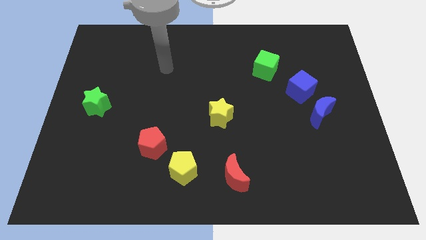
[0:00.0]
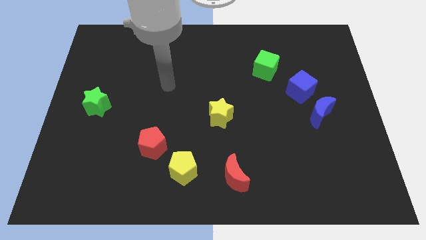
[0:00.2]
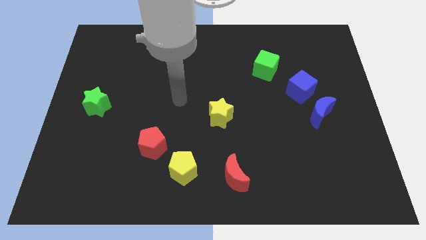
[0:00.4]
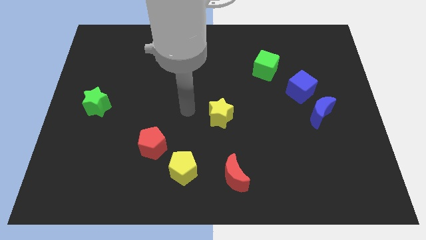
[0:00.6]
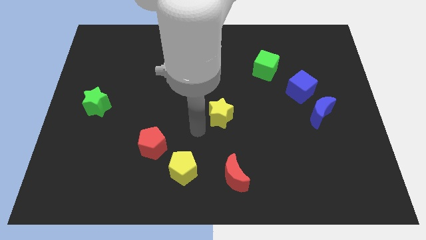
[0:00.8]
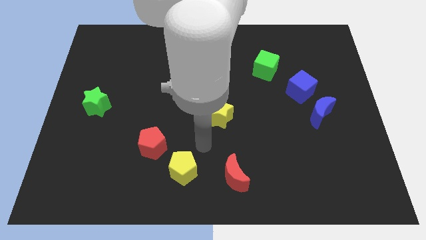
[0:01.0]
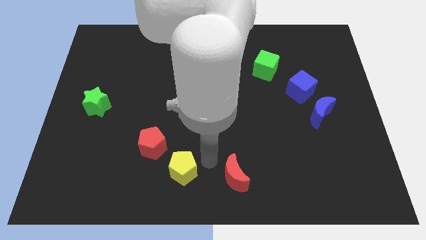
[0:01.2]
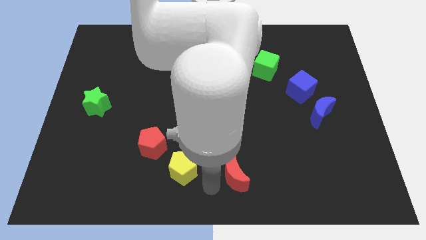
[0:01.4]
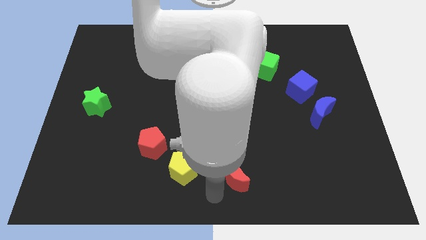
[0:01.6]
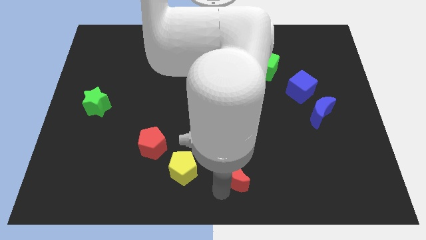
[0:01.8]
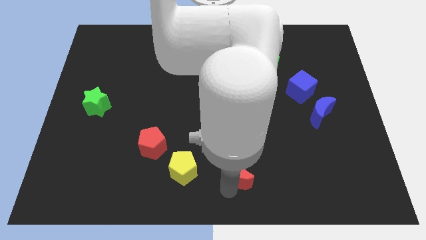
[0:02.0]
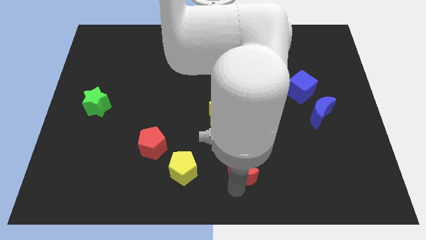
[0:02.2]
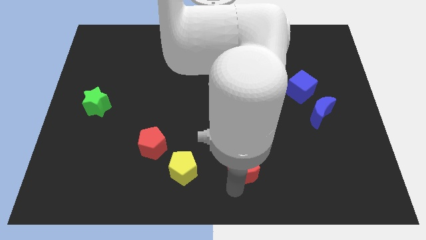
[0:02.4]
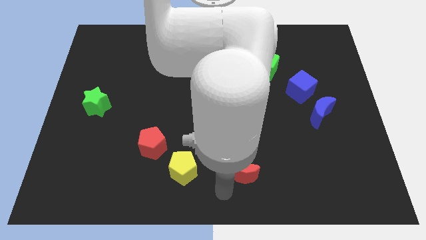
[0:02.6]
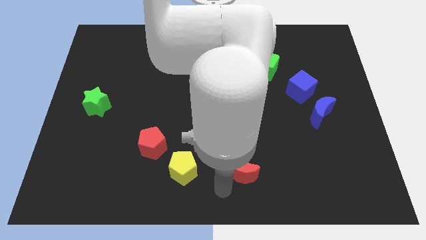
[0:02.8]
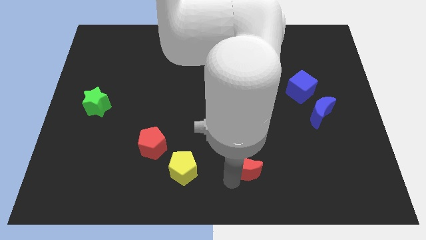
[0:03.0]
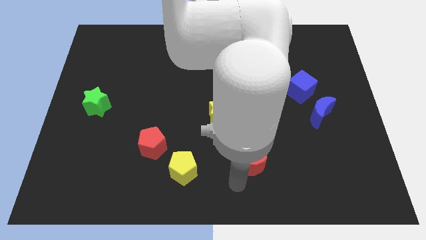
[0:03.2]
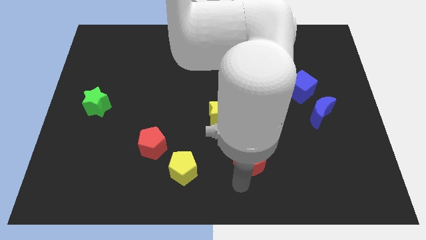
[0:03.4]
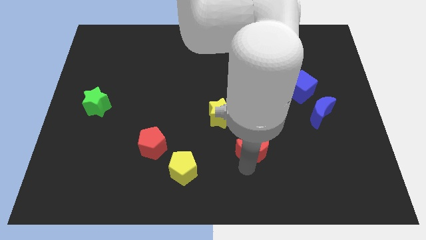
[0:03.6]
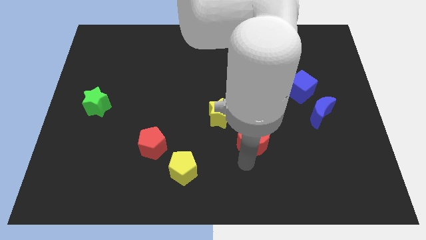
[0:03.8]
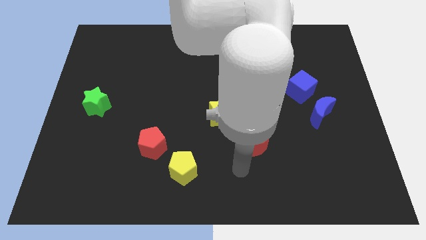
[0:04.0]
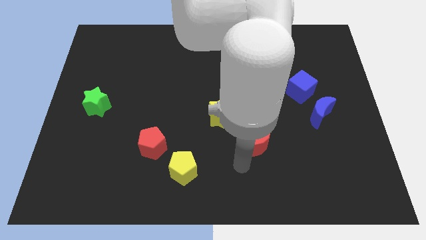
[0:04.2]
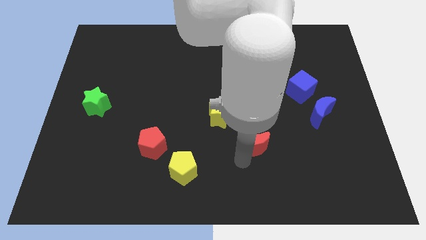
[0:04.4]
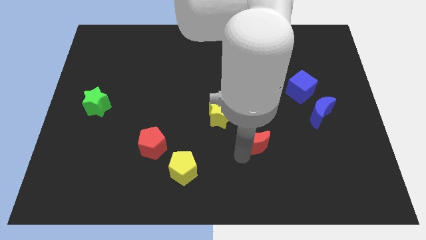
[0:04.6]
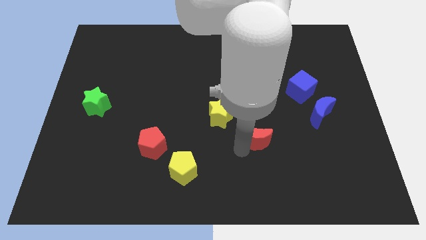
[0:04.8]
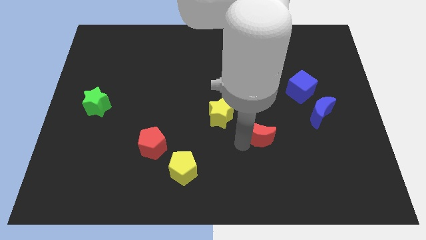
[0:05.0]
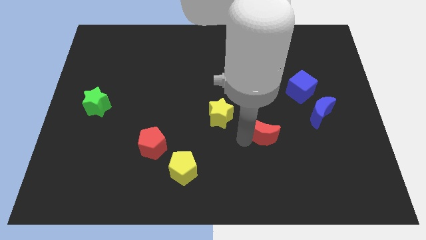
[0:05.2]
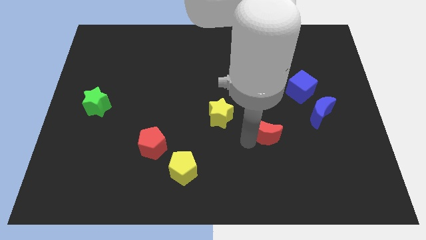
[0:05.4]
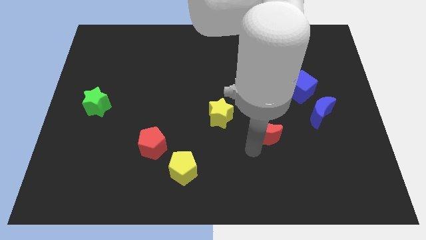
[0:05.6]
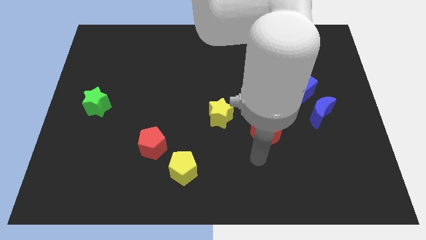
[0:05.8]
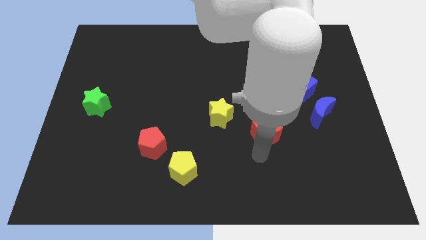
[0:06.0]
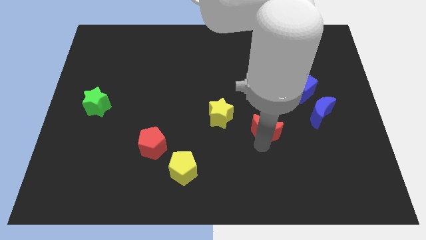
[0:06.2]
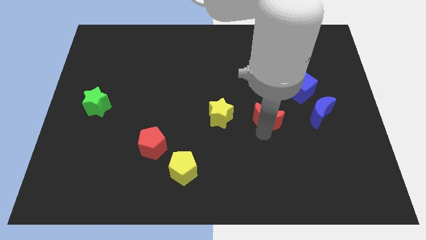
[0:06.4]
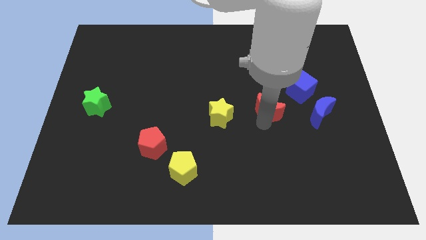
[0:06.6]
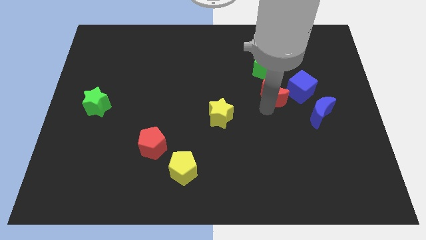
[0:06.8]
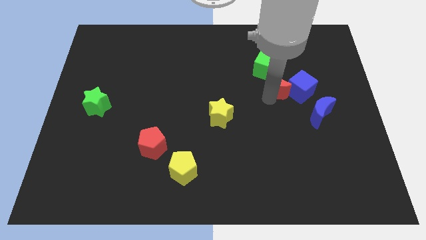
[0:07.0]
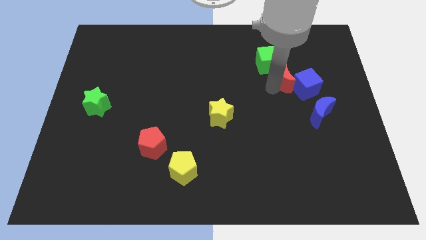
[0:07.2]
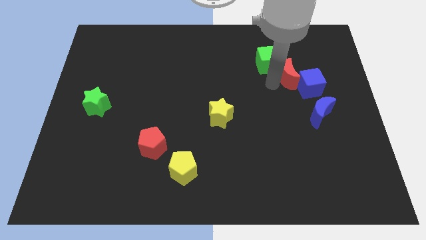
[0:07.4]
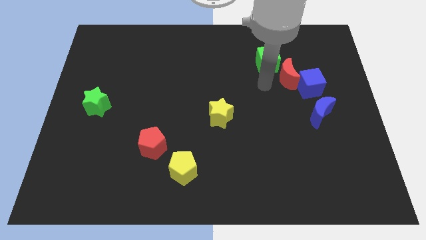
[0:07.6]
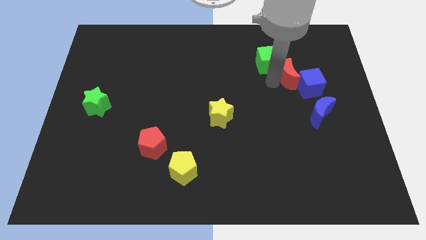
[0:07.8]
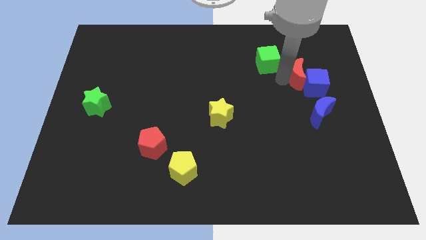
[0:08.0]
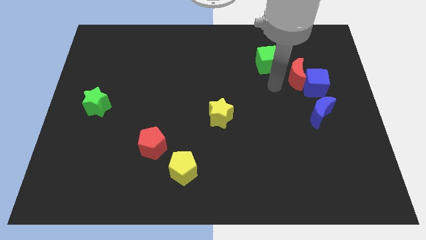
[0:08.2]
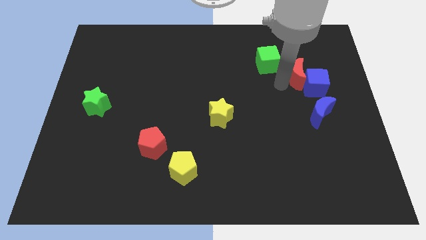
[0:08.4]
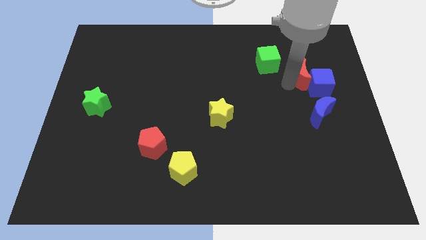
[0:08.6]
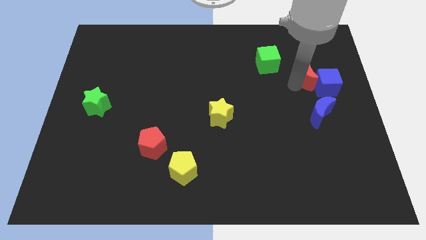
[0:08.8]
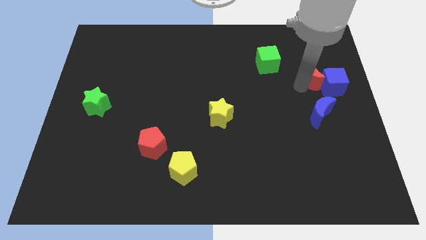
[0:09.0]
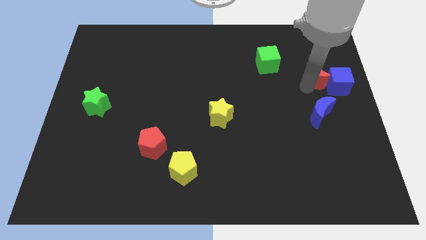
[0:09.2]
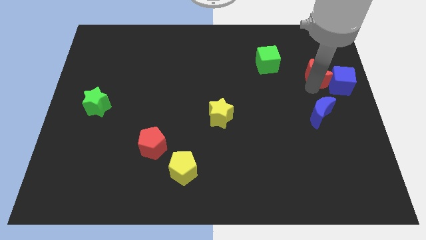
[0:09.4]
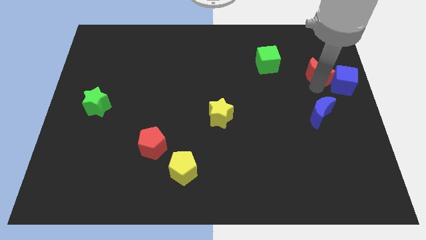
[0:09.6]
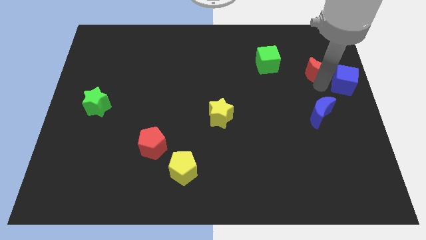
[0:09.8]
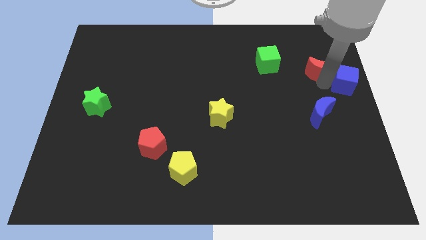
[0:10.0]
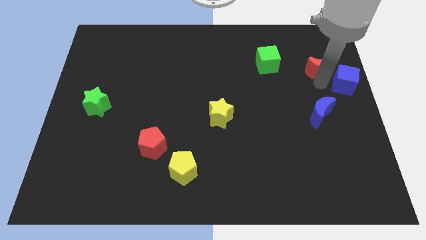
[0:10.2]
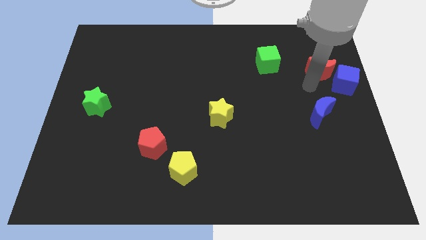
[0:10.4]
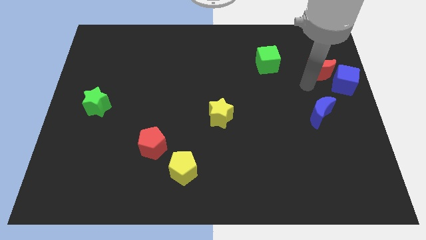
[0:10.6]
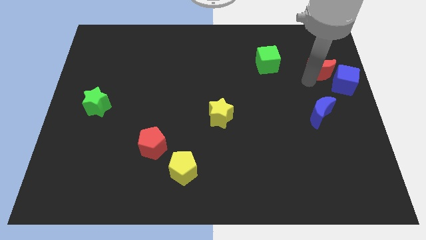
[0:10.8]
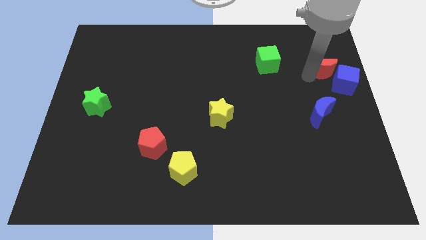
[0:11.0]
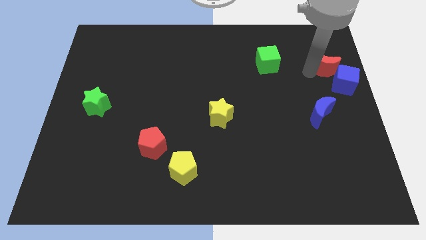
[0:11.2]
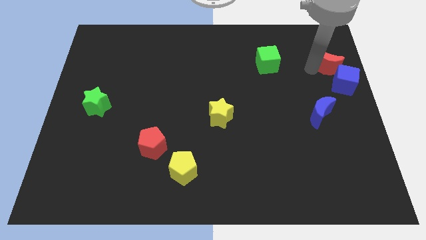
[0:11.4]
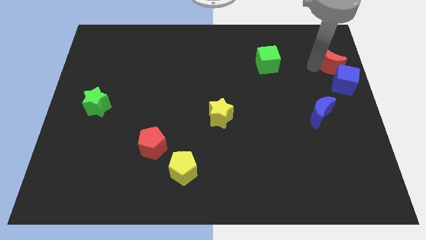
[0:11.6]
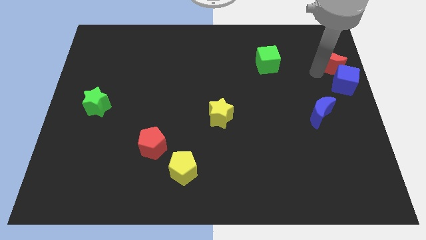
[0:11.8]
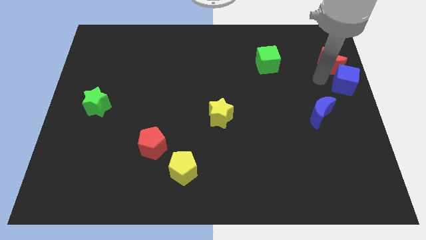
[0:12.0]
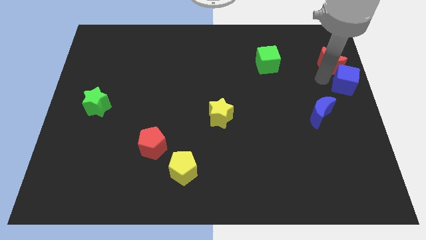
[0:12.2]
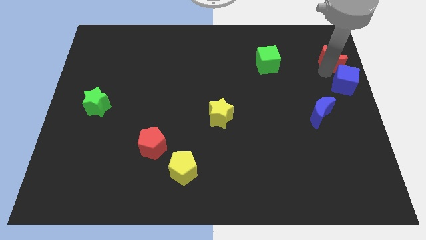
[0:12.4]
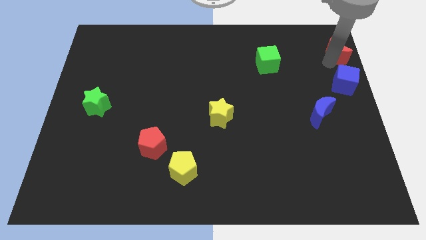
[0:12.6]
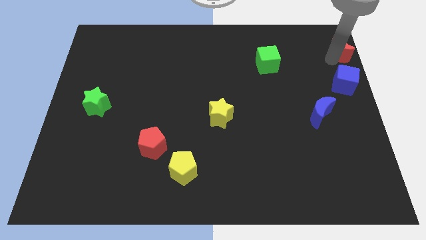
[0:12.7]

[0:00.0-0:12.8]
push the red moon to the top right

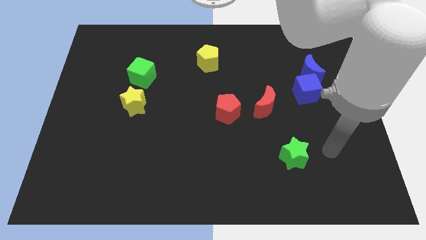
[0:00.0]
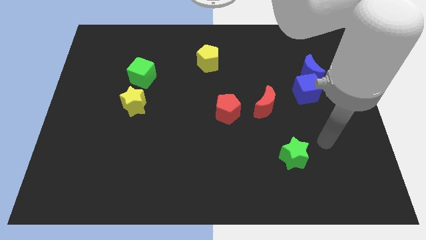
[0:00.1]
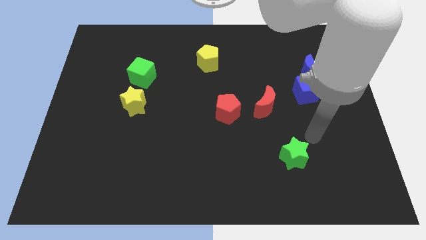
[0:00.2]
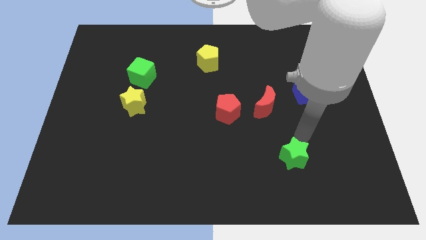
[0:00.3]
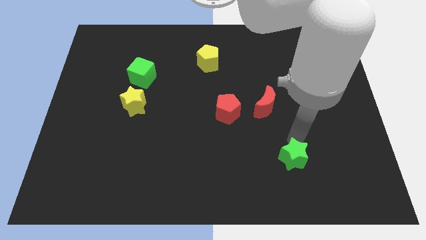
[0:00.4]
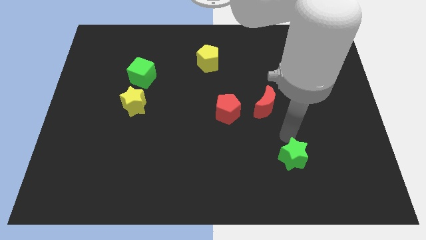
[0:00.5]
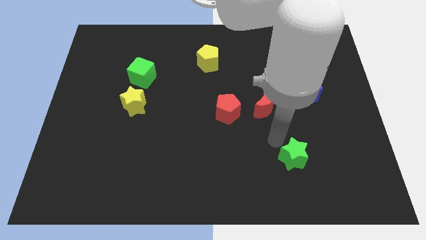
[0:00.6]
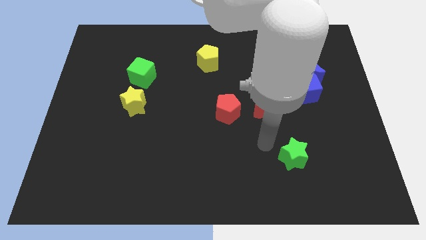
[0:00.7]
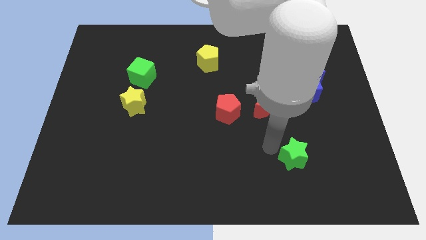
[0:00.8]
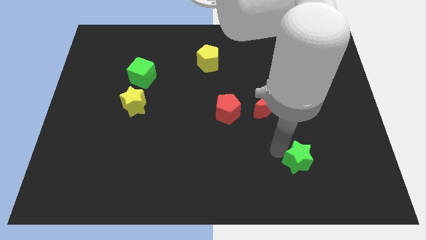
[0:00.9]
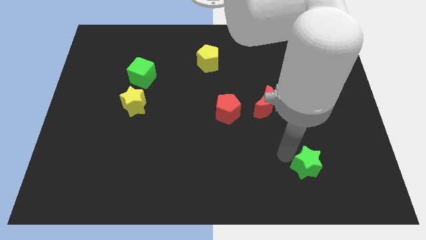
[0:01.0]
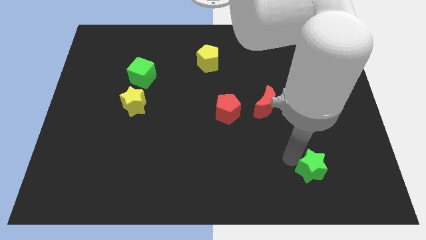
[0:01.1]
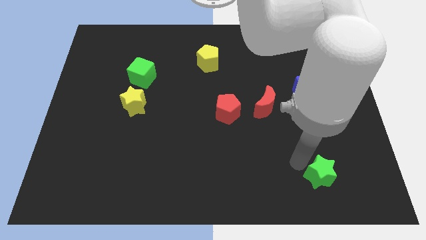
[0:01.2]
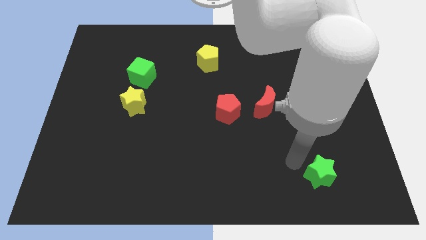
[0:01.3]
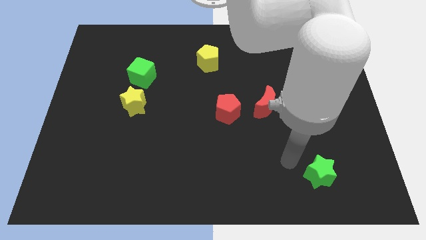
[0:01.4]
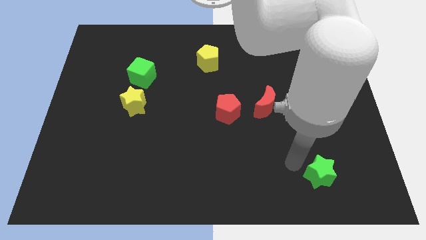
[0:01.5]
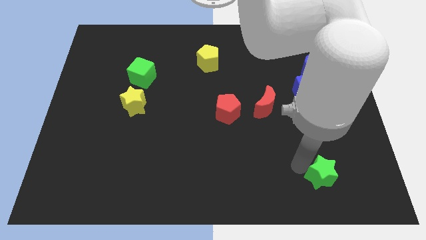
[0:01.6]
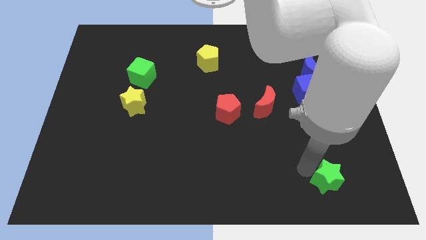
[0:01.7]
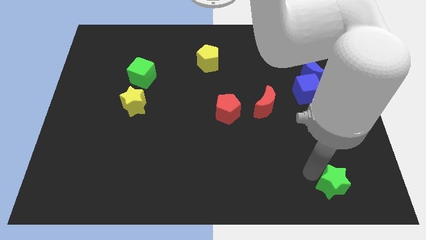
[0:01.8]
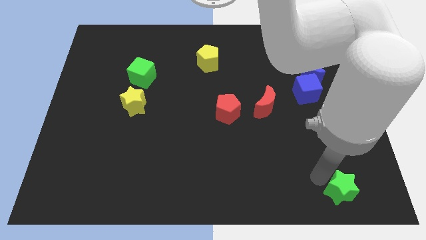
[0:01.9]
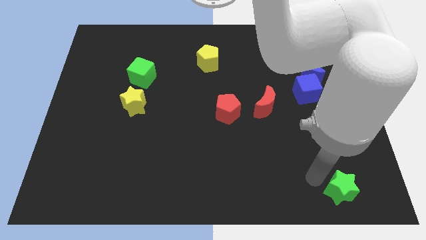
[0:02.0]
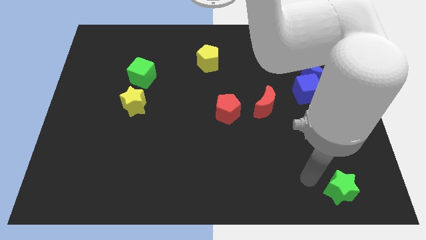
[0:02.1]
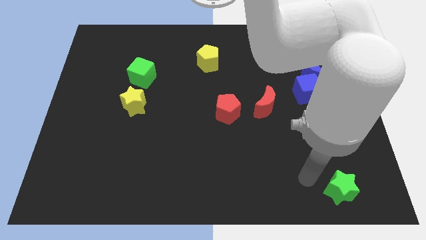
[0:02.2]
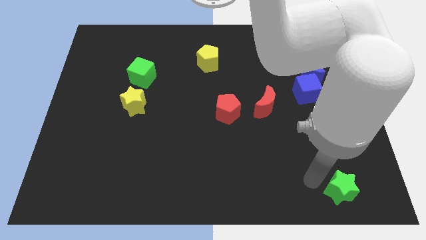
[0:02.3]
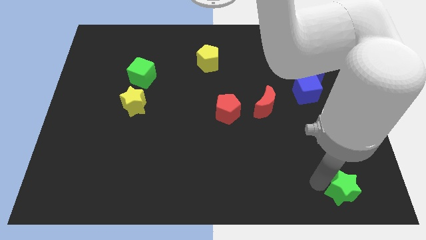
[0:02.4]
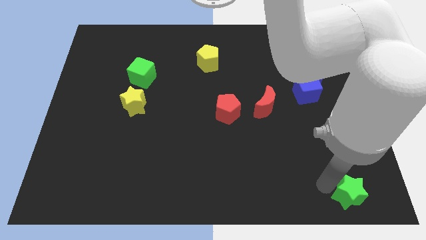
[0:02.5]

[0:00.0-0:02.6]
put the green star to the bottom right
